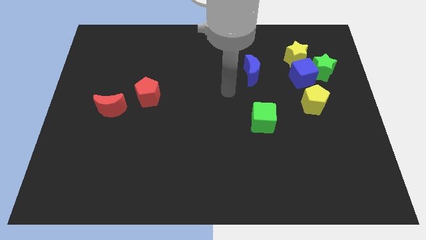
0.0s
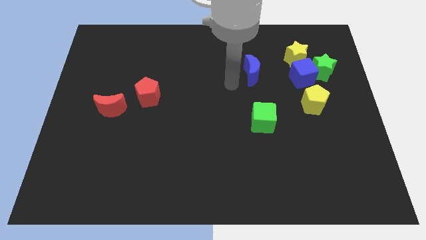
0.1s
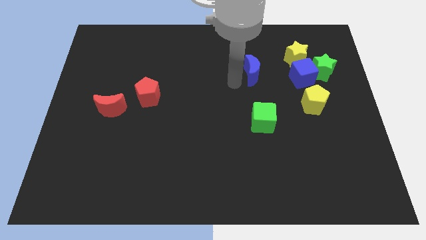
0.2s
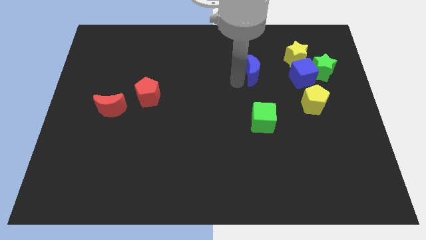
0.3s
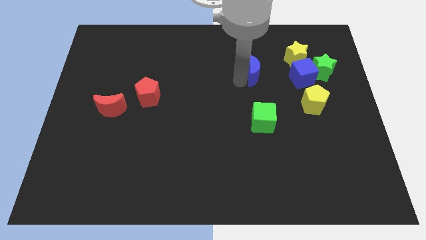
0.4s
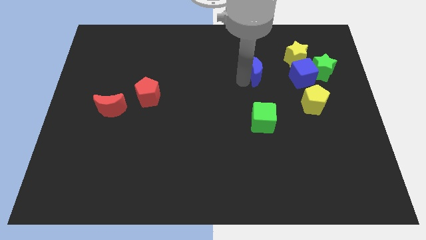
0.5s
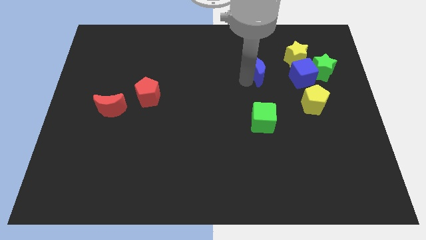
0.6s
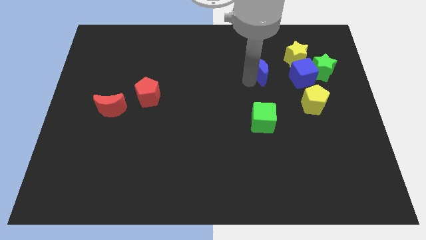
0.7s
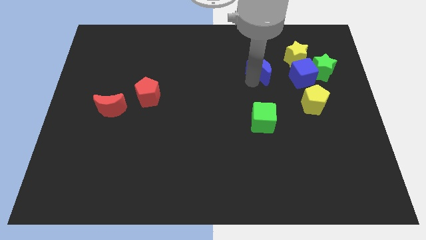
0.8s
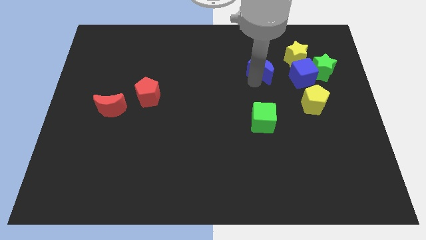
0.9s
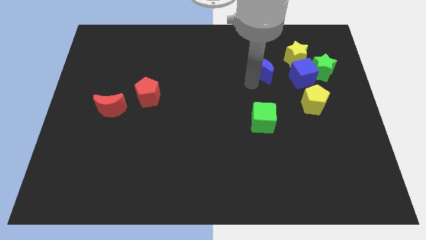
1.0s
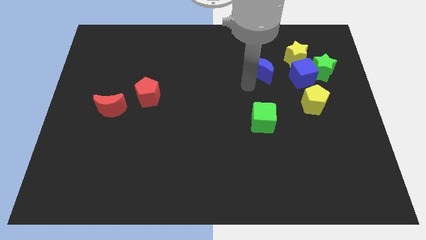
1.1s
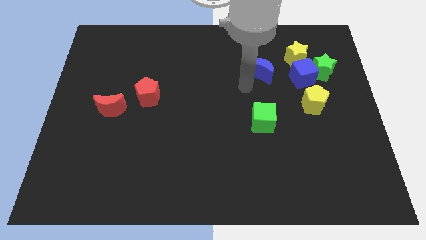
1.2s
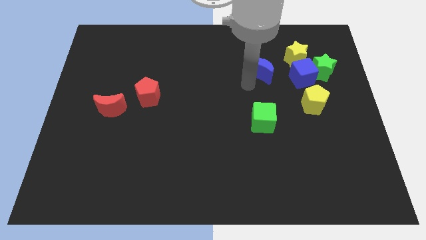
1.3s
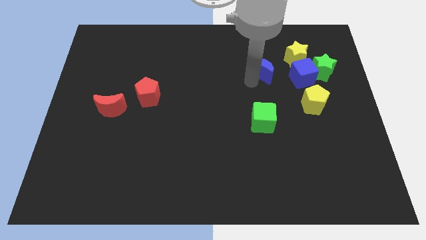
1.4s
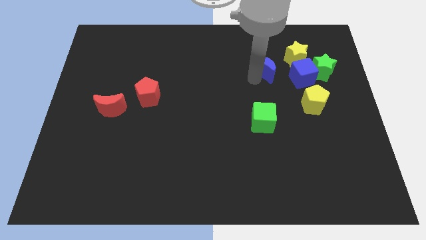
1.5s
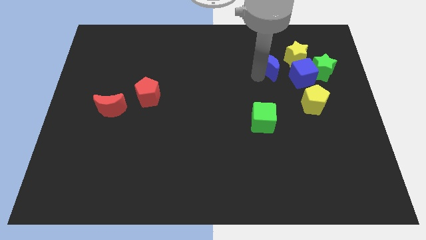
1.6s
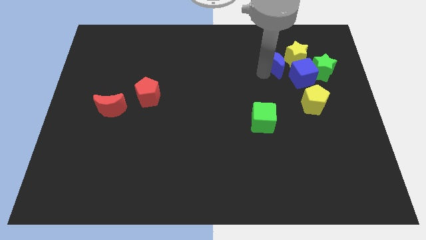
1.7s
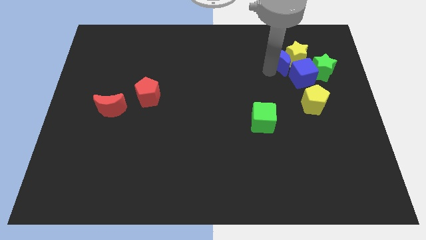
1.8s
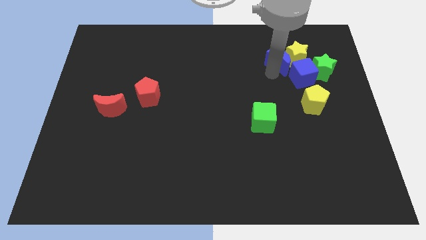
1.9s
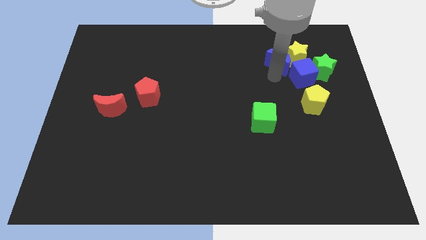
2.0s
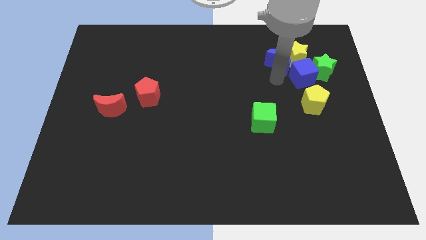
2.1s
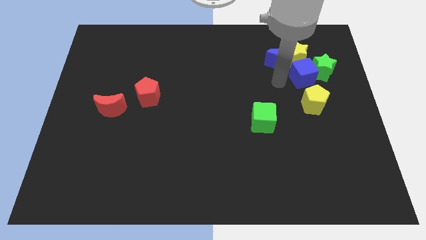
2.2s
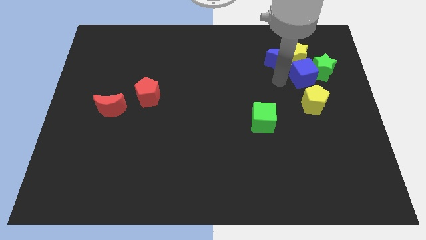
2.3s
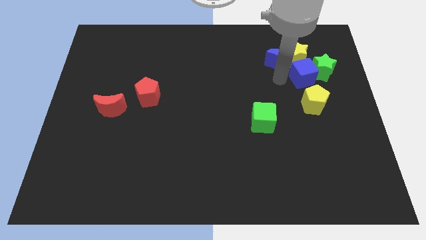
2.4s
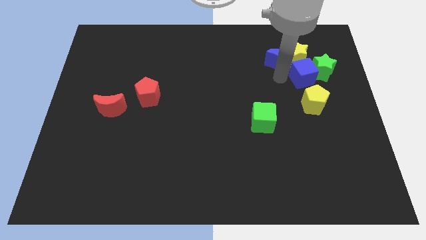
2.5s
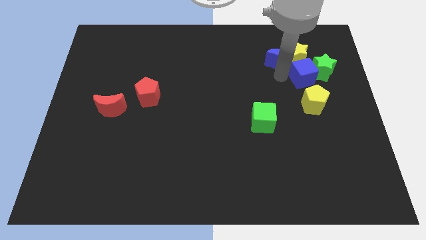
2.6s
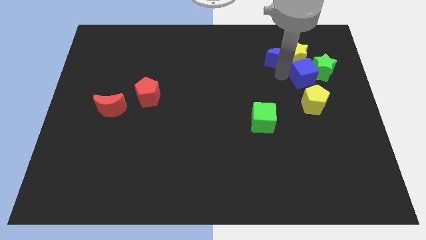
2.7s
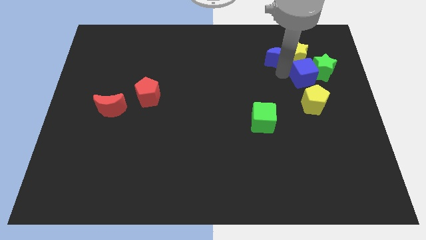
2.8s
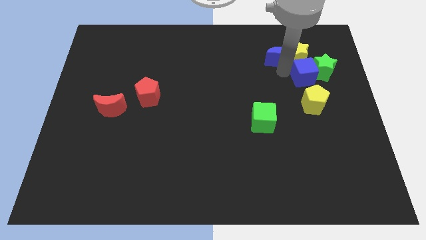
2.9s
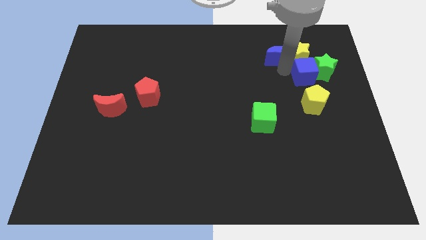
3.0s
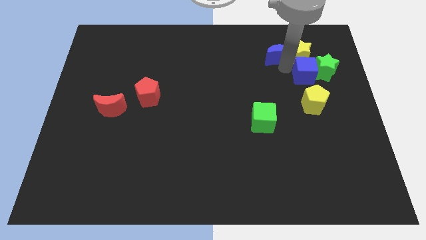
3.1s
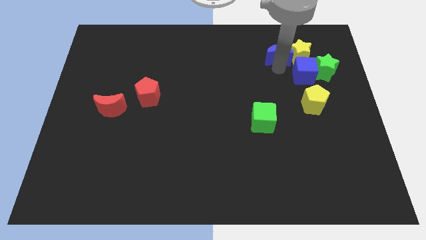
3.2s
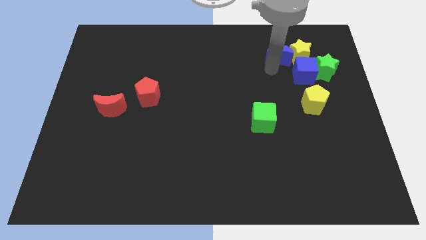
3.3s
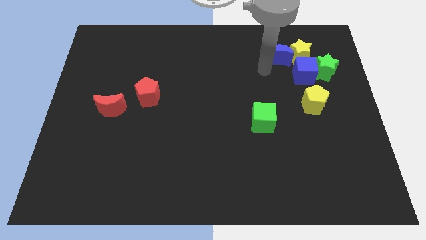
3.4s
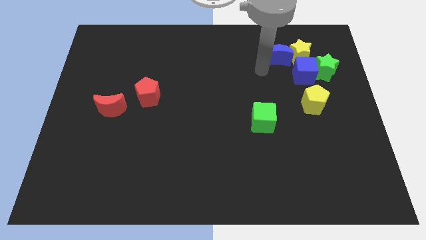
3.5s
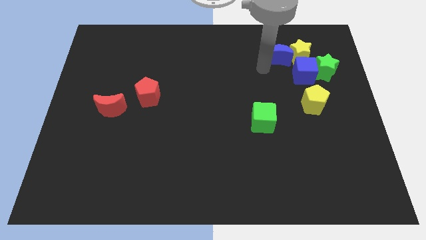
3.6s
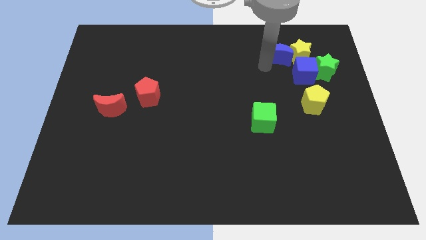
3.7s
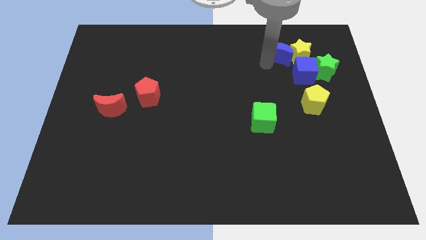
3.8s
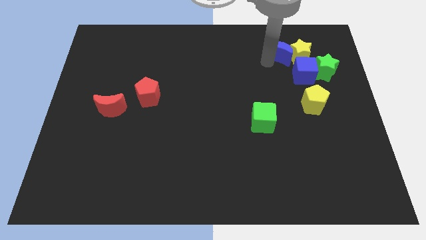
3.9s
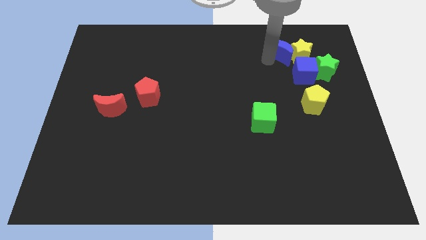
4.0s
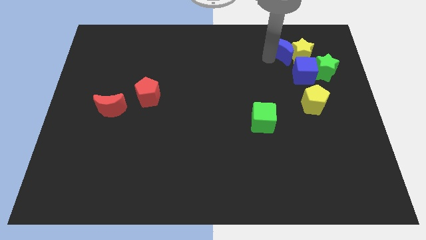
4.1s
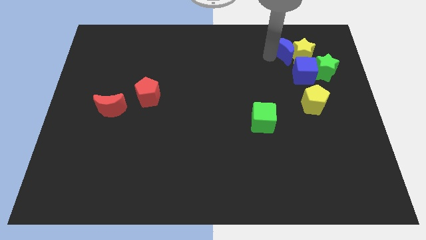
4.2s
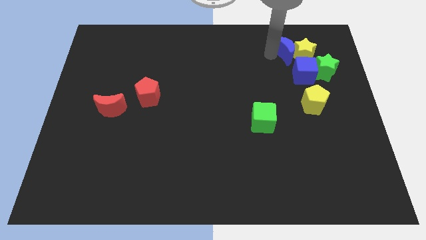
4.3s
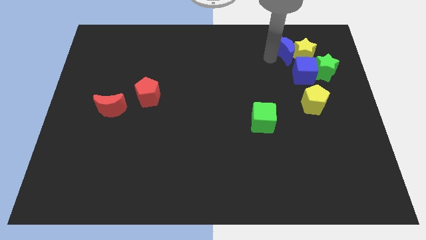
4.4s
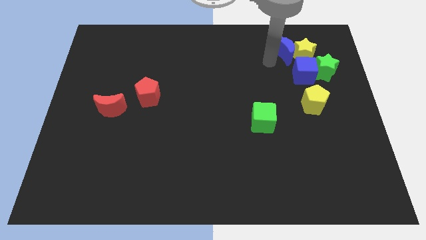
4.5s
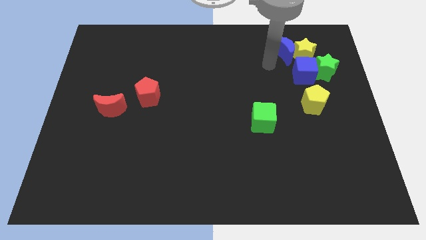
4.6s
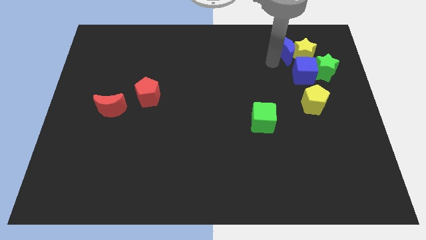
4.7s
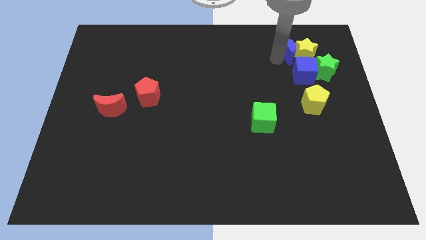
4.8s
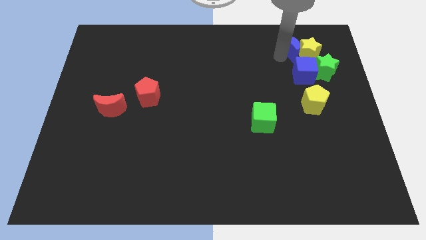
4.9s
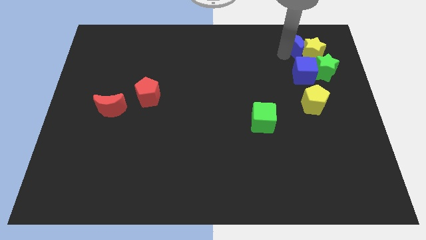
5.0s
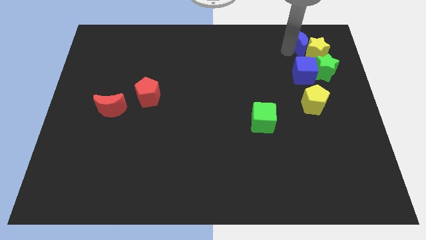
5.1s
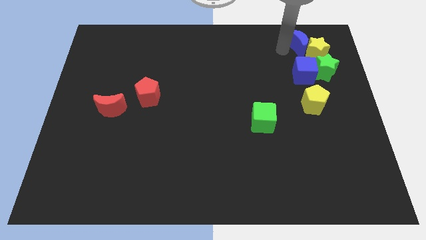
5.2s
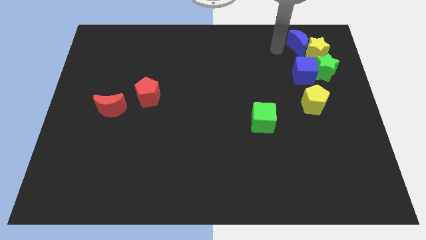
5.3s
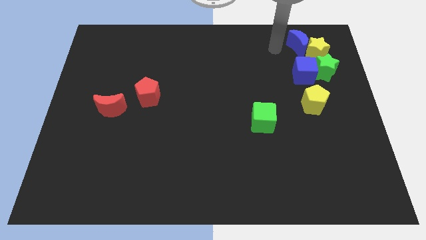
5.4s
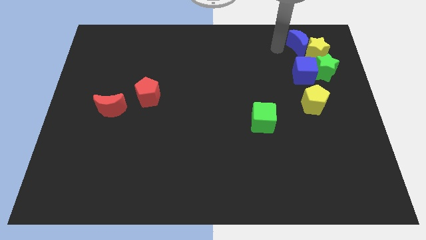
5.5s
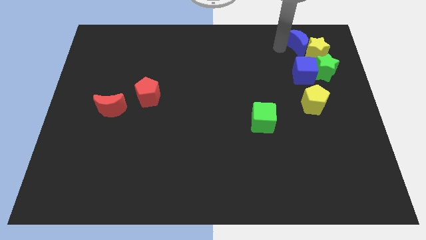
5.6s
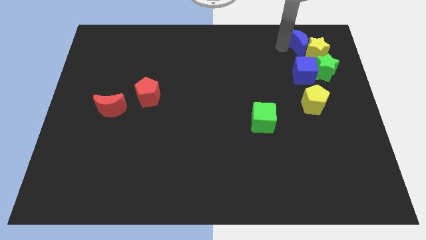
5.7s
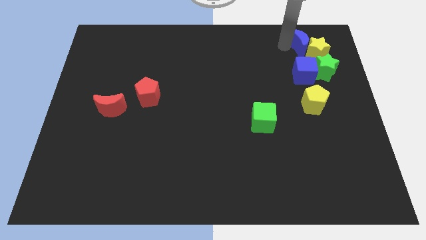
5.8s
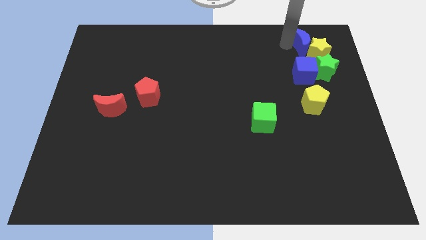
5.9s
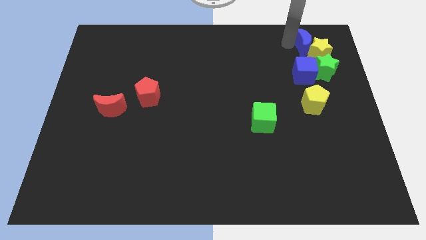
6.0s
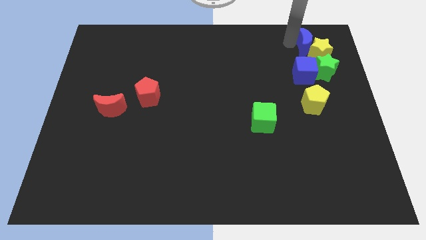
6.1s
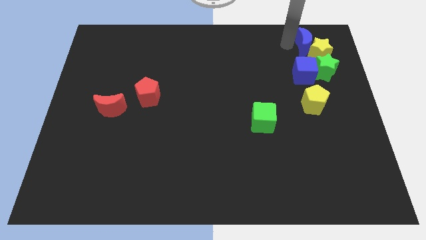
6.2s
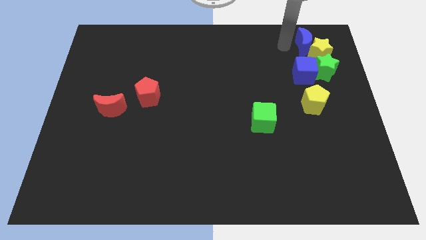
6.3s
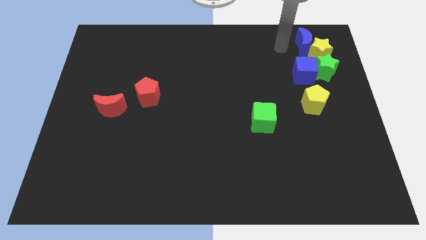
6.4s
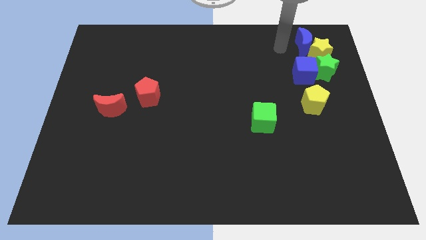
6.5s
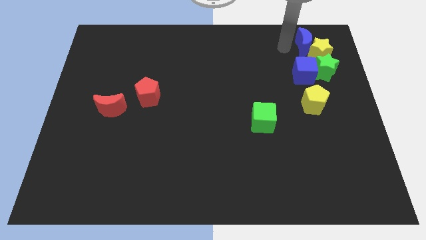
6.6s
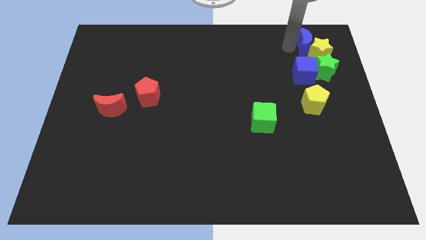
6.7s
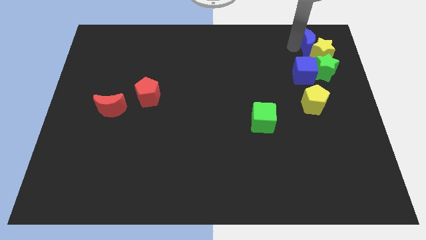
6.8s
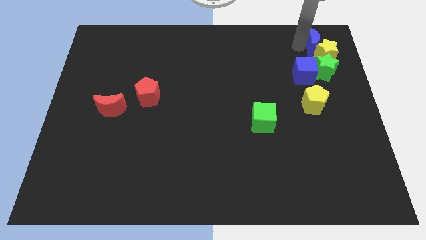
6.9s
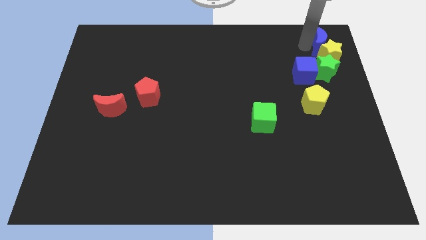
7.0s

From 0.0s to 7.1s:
push the blue moon to the top right
